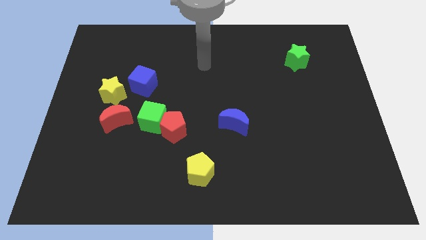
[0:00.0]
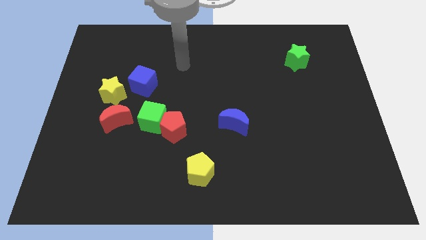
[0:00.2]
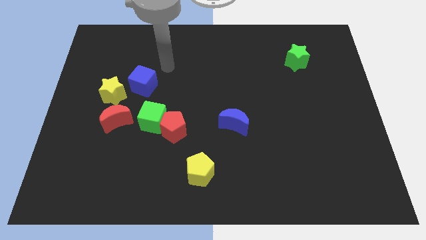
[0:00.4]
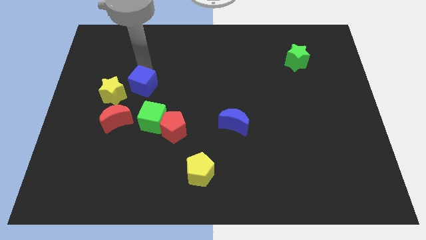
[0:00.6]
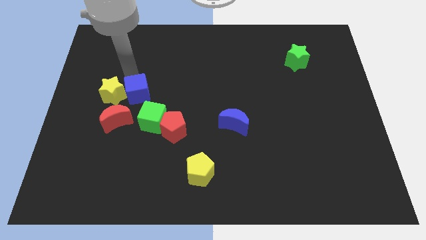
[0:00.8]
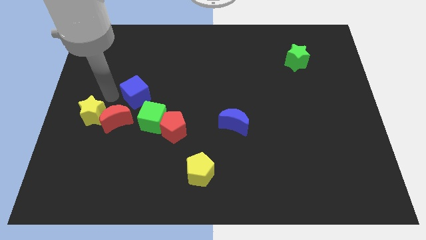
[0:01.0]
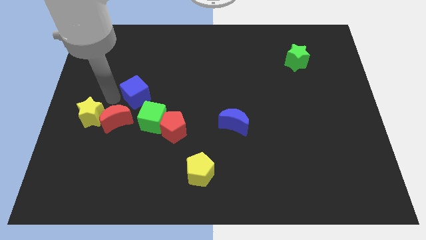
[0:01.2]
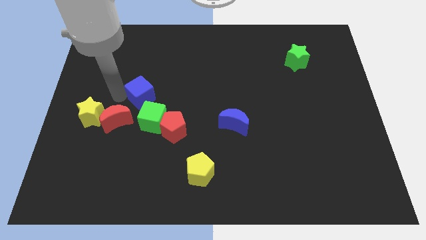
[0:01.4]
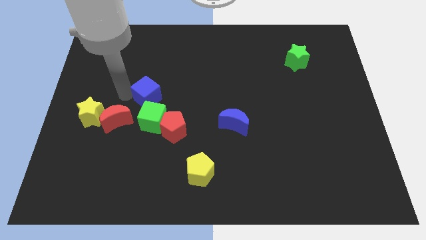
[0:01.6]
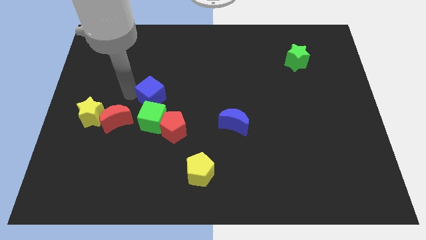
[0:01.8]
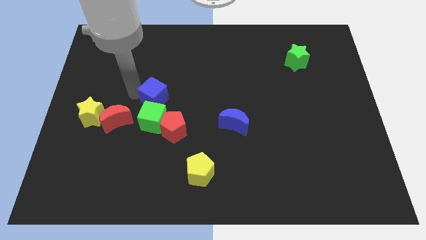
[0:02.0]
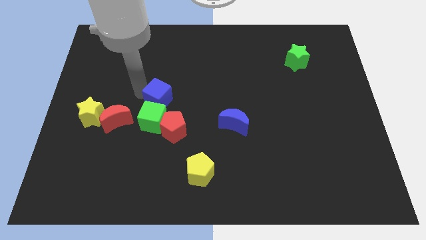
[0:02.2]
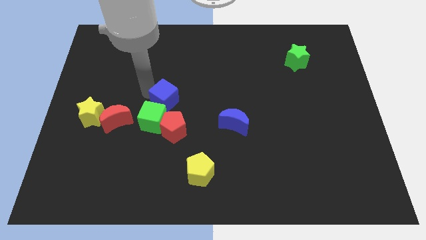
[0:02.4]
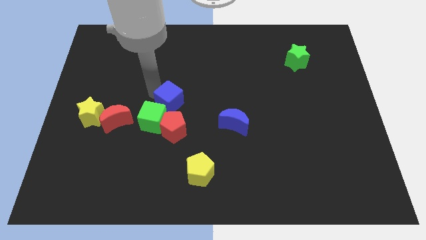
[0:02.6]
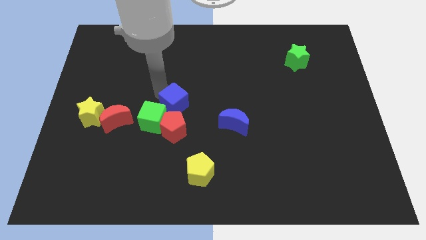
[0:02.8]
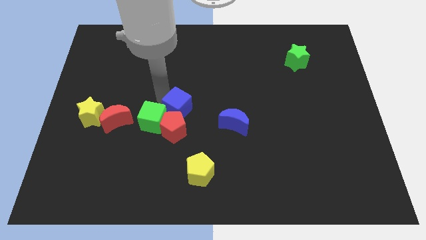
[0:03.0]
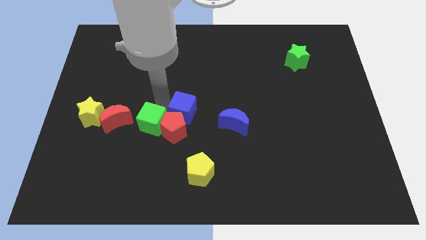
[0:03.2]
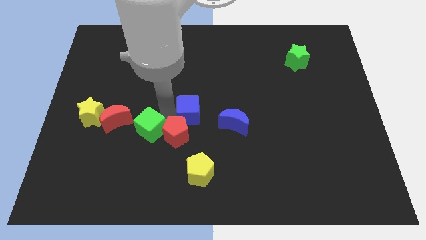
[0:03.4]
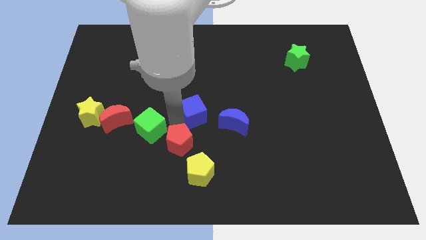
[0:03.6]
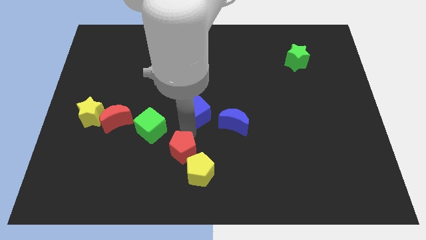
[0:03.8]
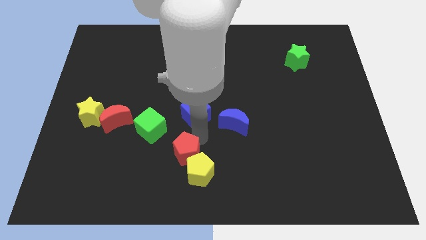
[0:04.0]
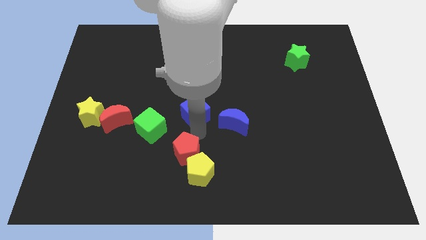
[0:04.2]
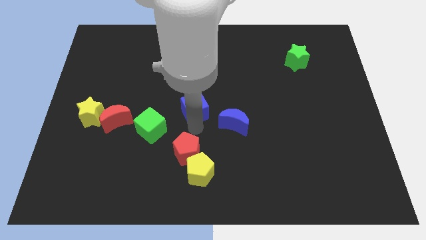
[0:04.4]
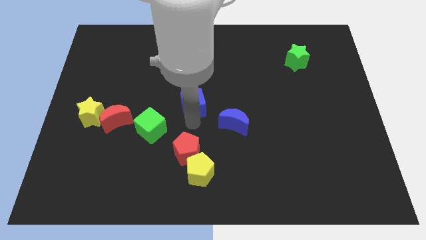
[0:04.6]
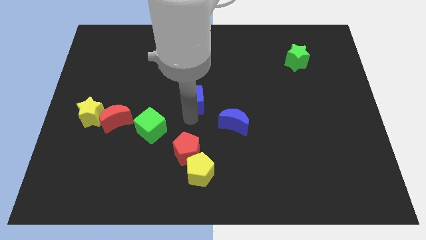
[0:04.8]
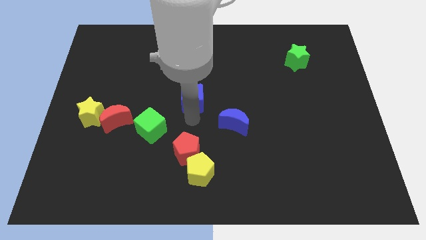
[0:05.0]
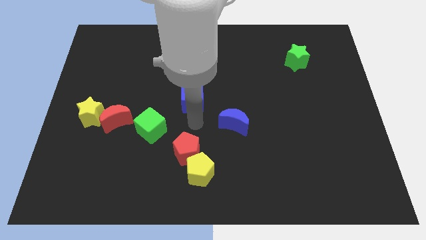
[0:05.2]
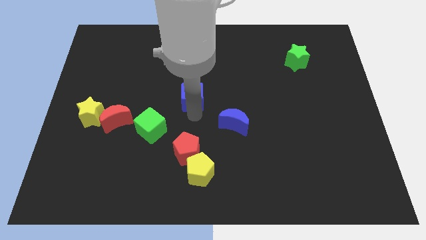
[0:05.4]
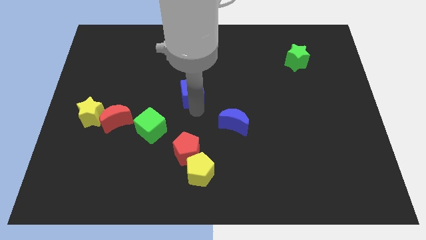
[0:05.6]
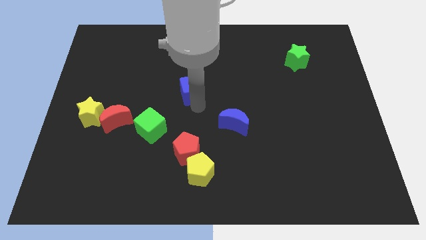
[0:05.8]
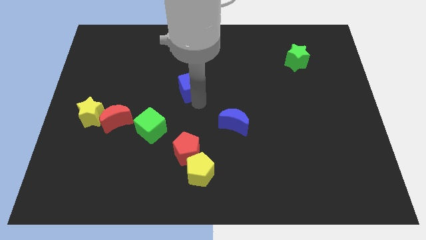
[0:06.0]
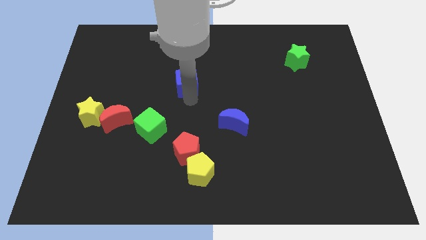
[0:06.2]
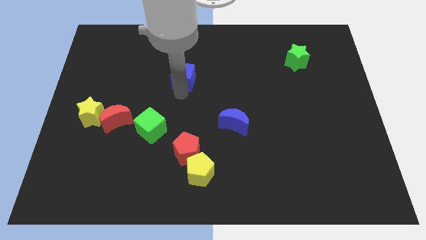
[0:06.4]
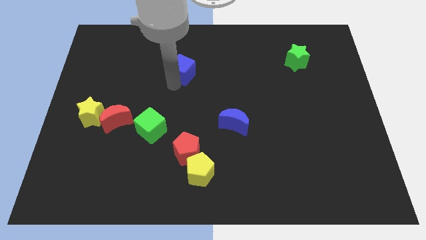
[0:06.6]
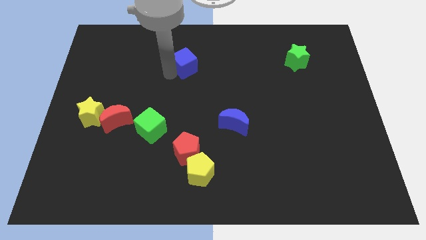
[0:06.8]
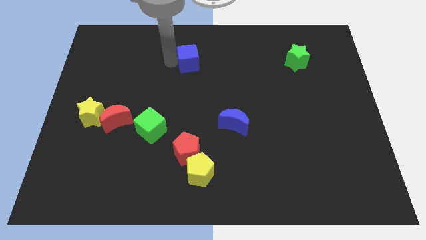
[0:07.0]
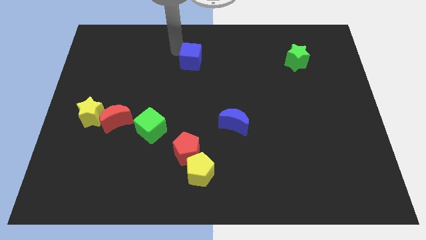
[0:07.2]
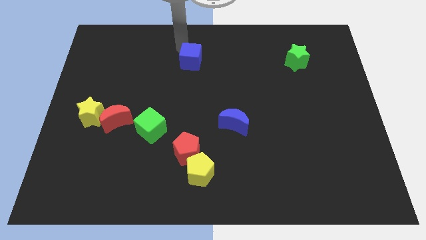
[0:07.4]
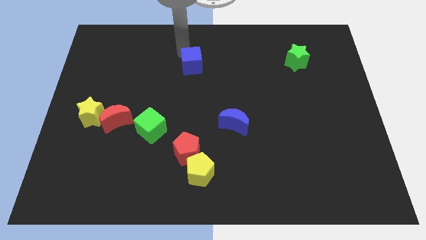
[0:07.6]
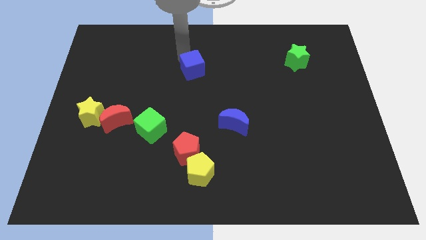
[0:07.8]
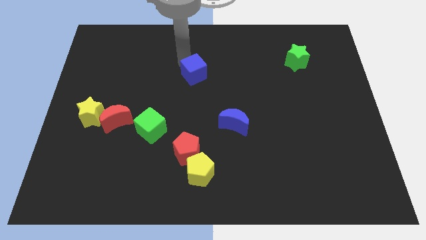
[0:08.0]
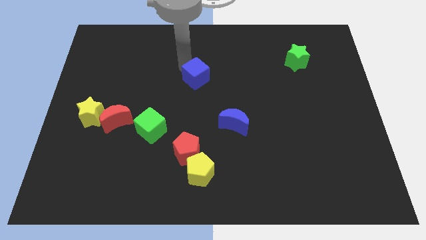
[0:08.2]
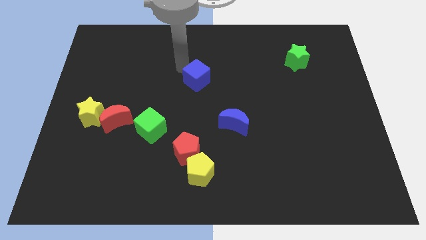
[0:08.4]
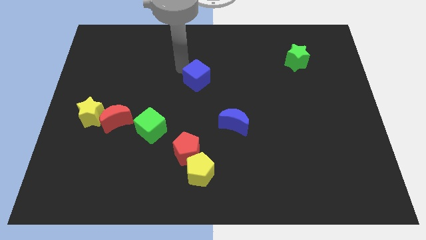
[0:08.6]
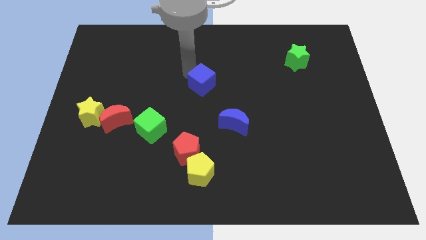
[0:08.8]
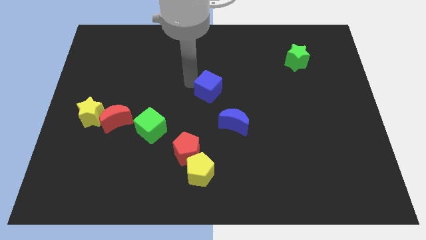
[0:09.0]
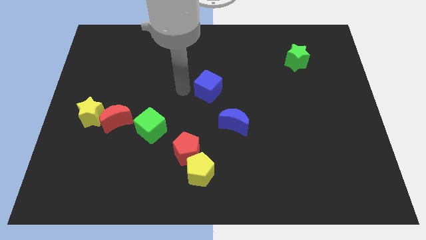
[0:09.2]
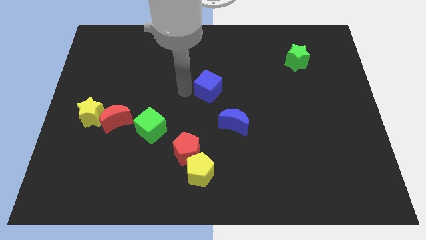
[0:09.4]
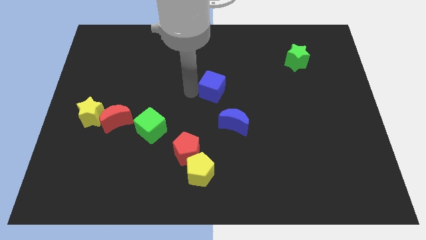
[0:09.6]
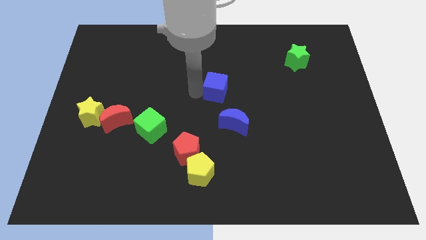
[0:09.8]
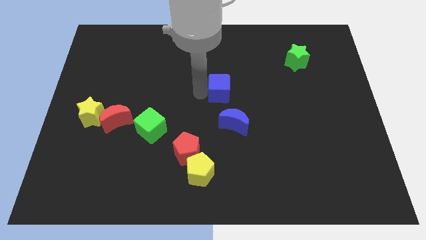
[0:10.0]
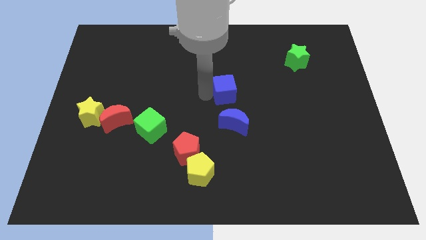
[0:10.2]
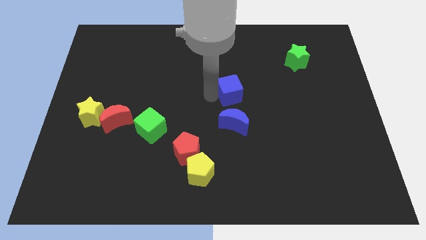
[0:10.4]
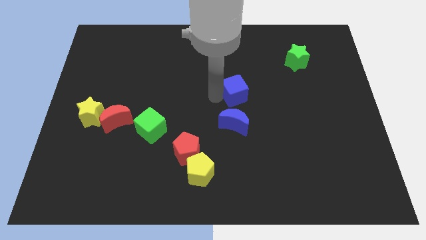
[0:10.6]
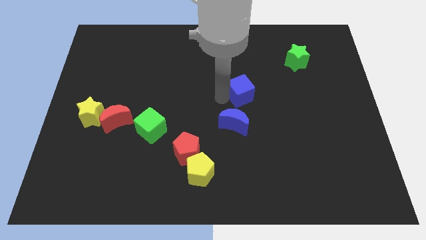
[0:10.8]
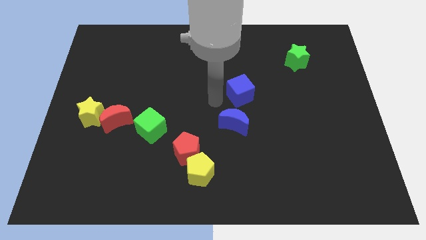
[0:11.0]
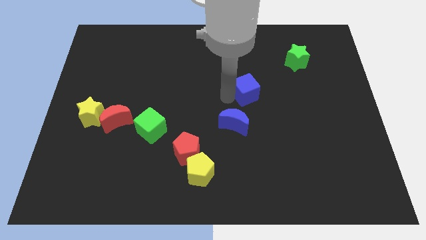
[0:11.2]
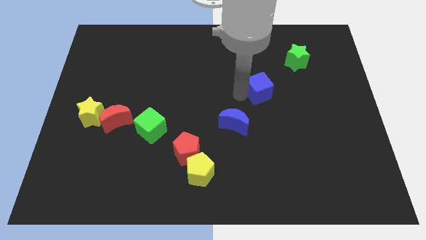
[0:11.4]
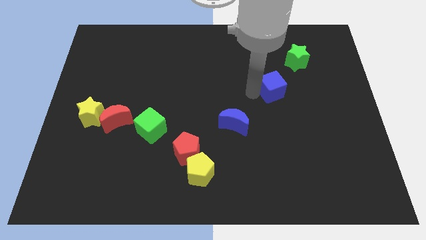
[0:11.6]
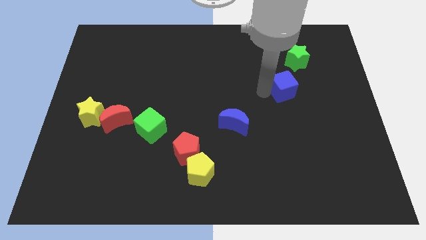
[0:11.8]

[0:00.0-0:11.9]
put the blue cube below the green star

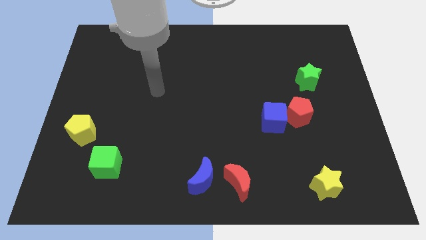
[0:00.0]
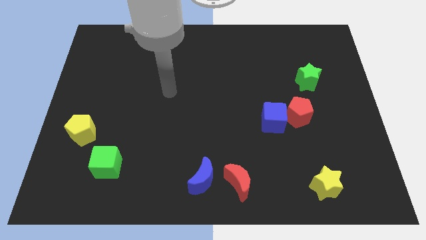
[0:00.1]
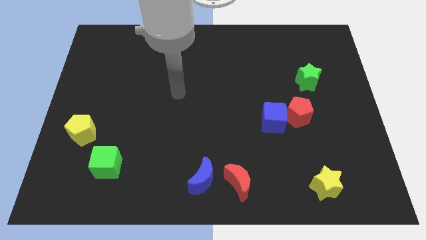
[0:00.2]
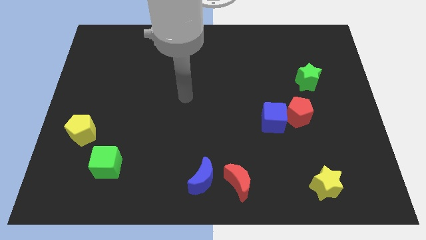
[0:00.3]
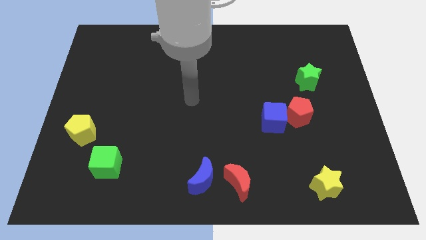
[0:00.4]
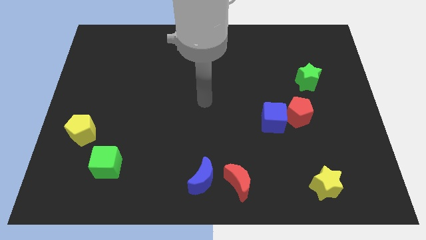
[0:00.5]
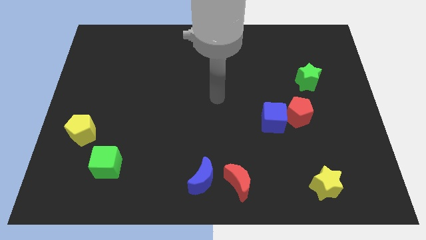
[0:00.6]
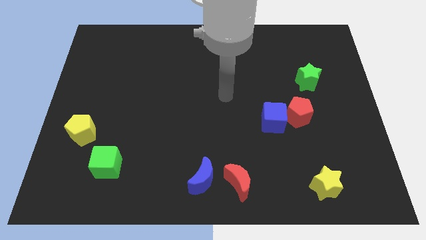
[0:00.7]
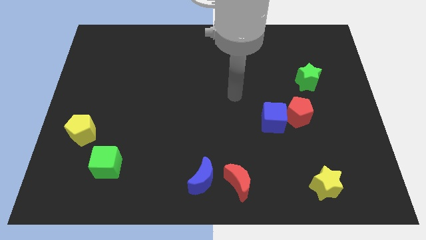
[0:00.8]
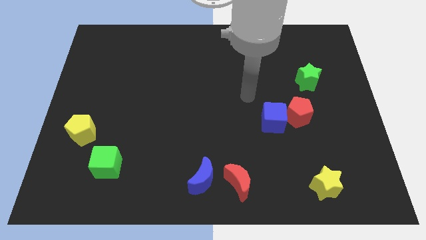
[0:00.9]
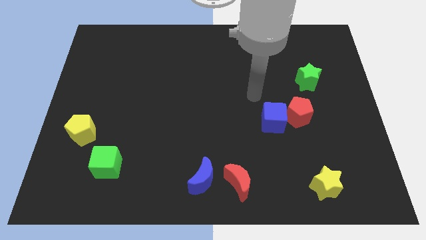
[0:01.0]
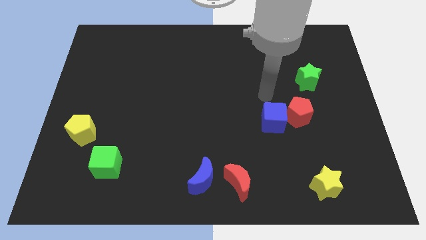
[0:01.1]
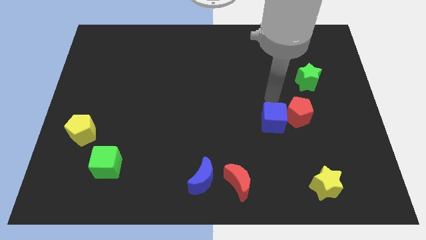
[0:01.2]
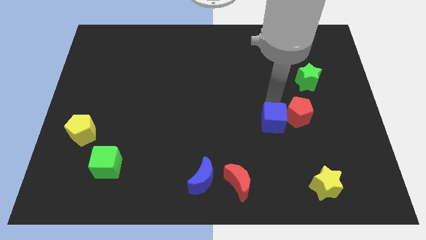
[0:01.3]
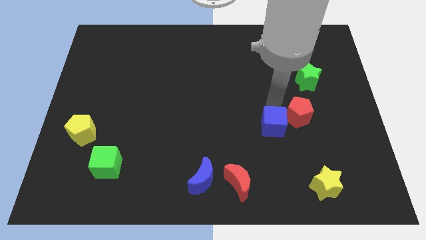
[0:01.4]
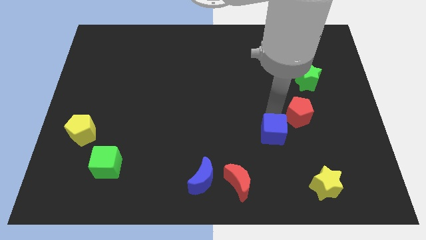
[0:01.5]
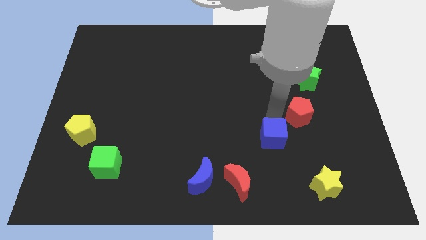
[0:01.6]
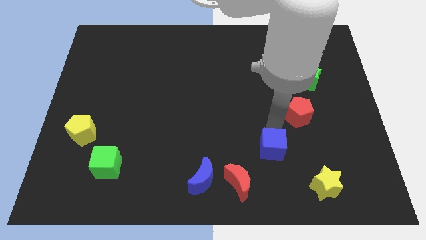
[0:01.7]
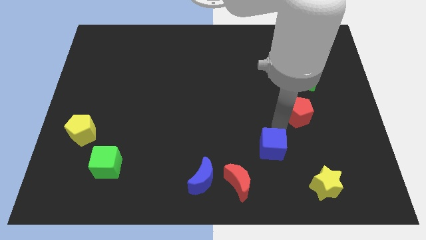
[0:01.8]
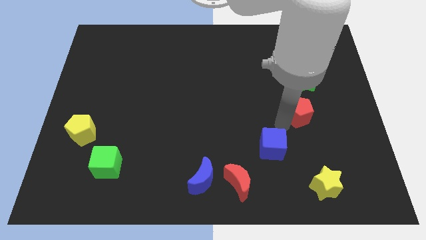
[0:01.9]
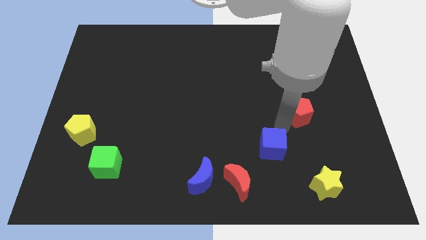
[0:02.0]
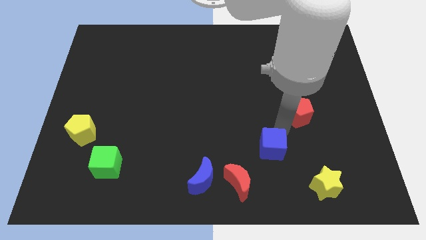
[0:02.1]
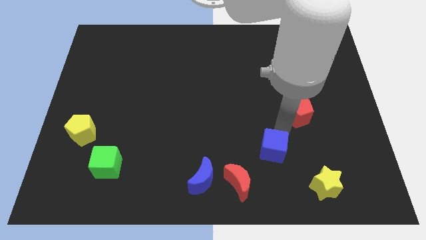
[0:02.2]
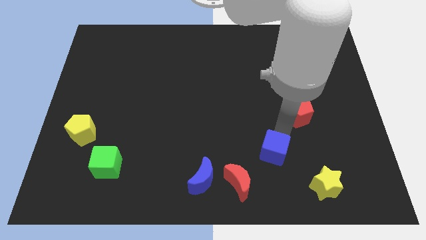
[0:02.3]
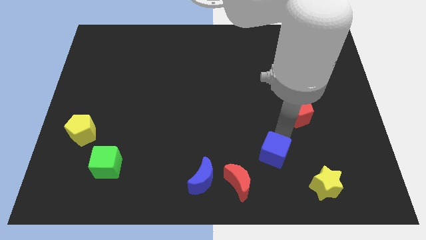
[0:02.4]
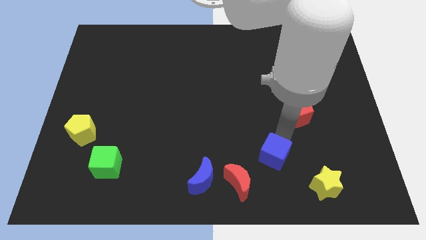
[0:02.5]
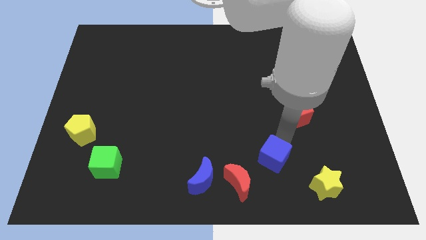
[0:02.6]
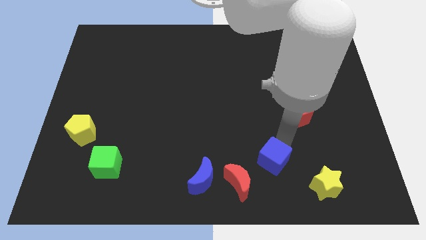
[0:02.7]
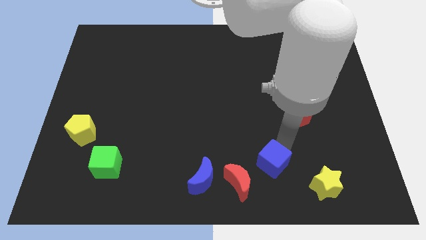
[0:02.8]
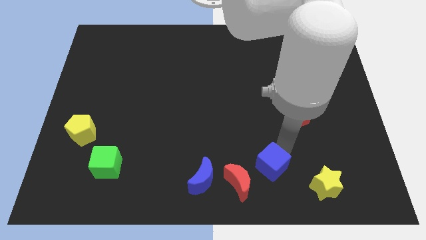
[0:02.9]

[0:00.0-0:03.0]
move the blue cube to the right of the blue moon
